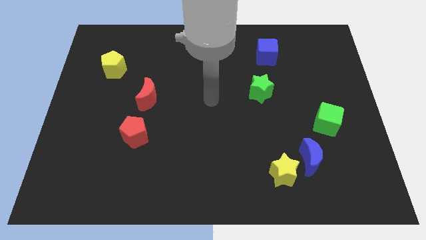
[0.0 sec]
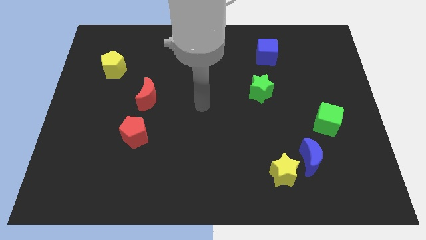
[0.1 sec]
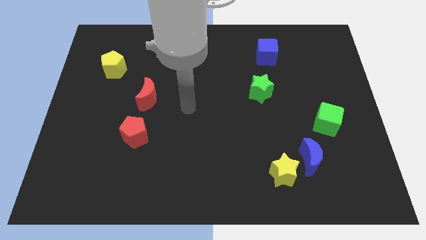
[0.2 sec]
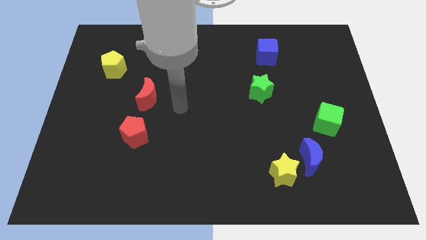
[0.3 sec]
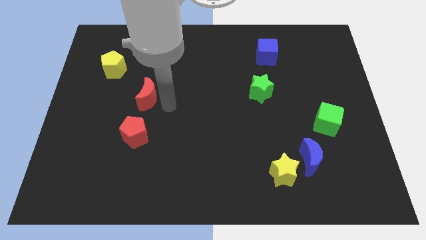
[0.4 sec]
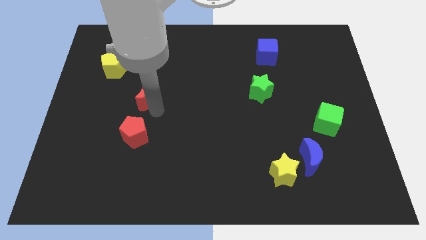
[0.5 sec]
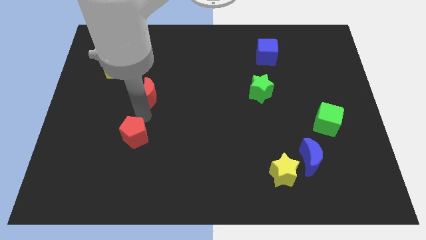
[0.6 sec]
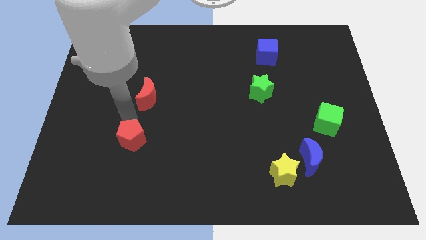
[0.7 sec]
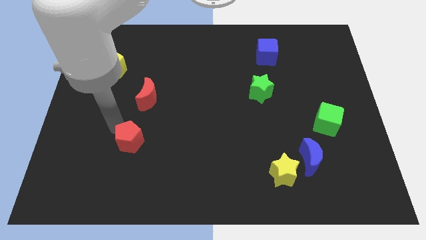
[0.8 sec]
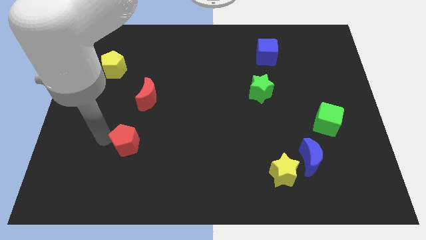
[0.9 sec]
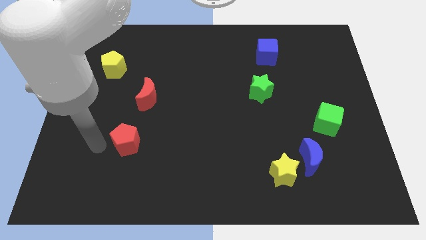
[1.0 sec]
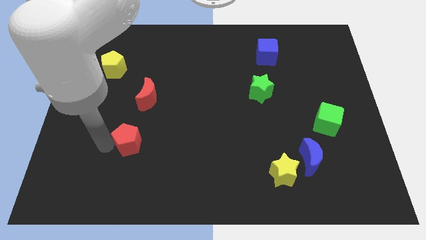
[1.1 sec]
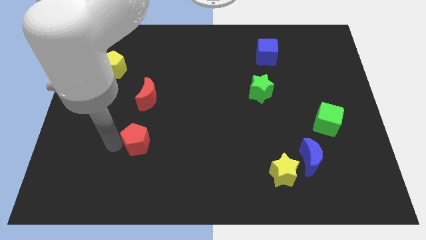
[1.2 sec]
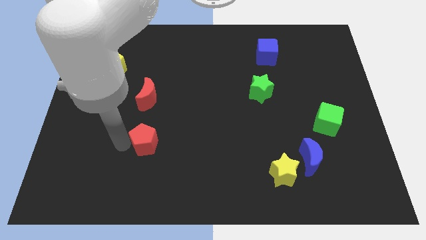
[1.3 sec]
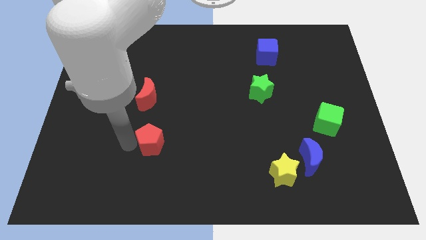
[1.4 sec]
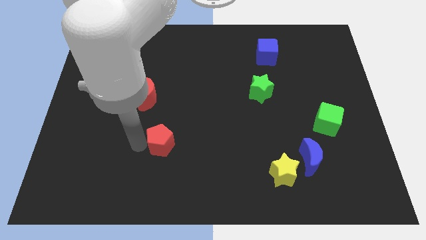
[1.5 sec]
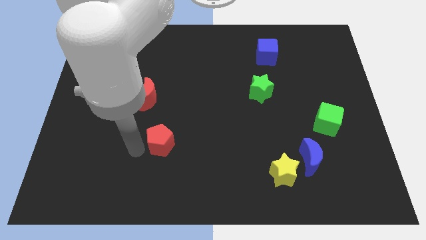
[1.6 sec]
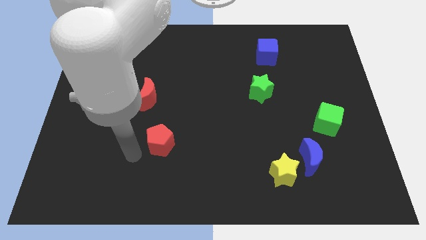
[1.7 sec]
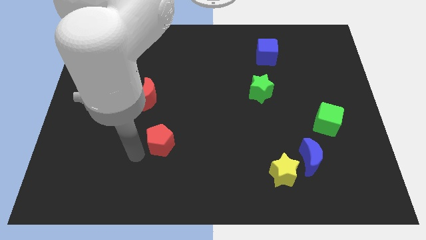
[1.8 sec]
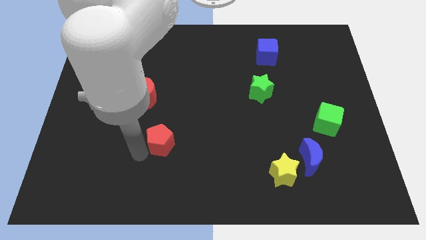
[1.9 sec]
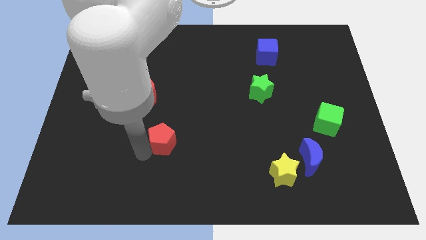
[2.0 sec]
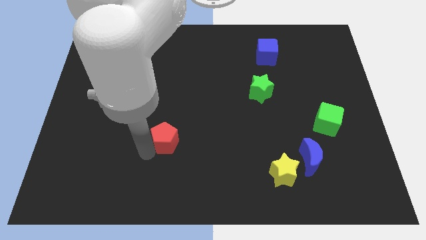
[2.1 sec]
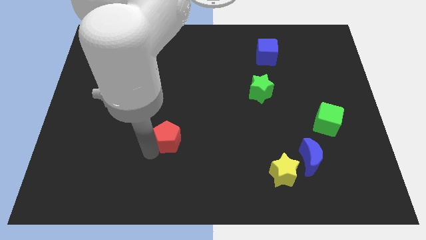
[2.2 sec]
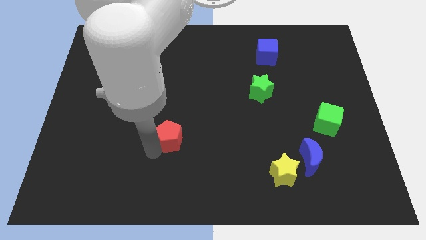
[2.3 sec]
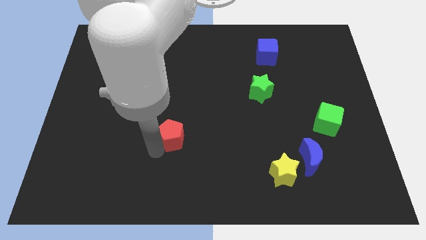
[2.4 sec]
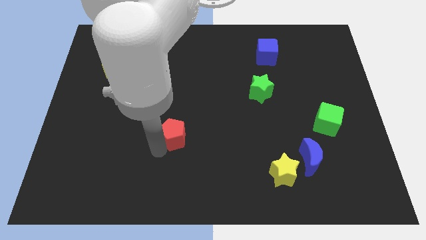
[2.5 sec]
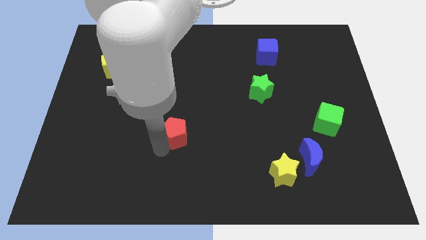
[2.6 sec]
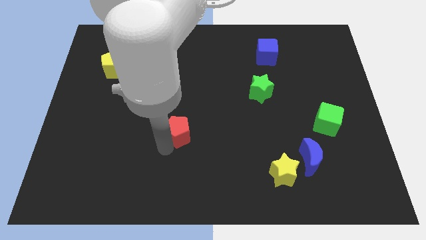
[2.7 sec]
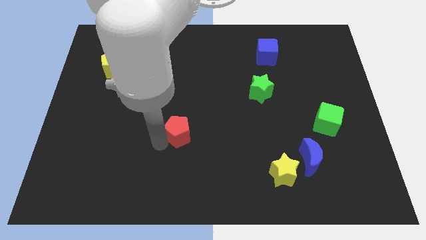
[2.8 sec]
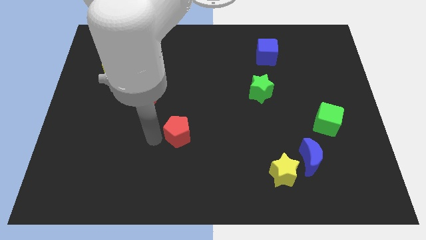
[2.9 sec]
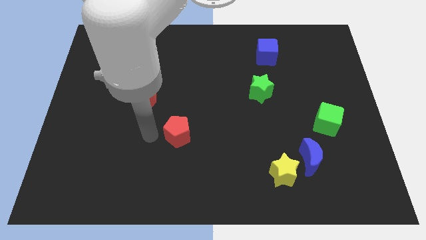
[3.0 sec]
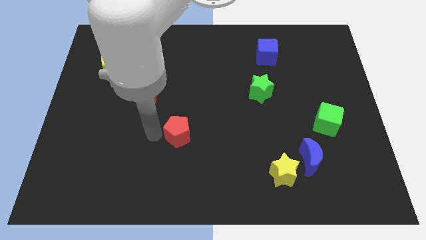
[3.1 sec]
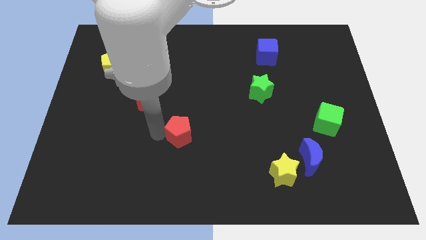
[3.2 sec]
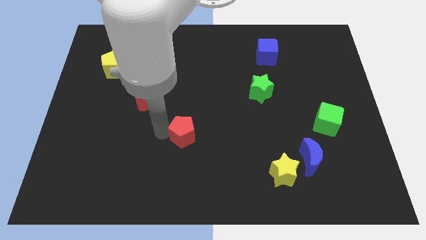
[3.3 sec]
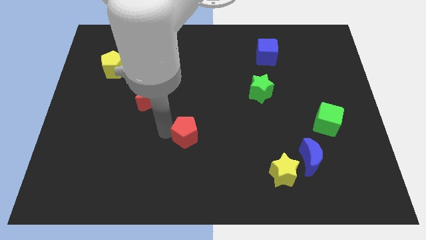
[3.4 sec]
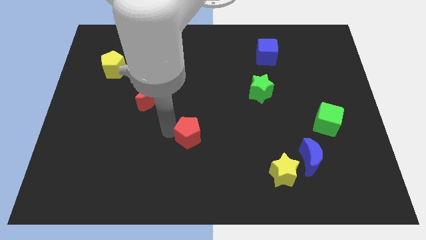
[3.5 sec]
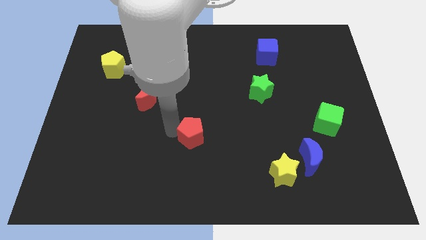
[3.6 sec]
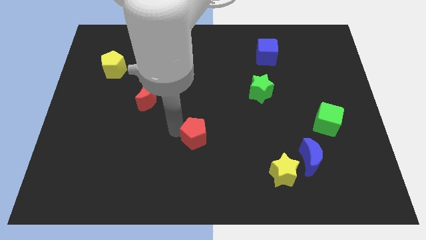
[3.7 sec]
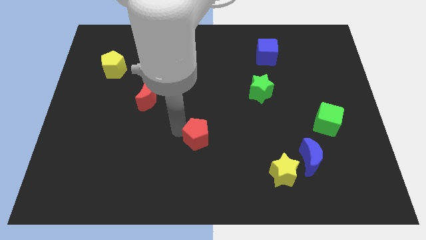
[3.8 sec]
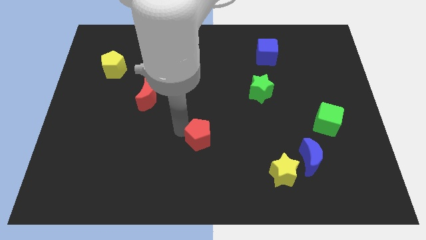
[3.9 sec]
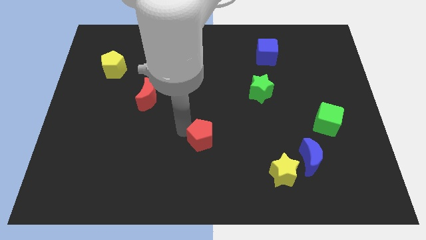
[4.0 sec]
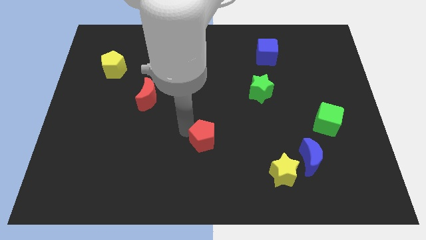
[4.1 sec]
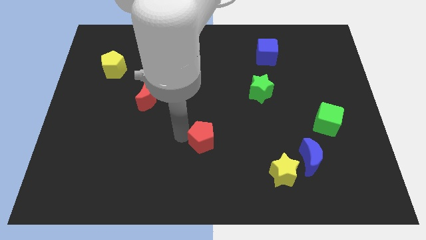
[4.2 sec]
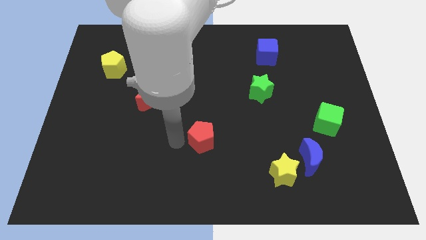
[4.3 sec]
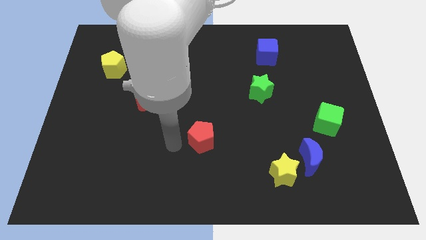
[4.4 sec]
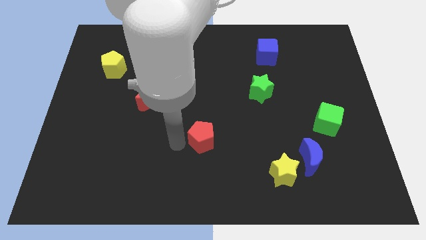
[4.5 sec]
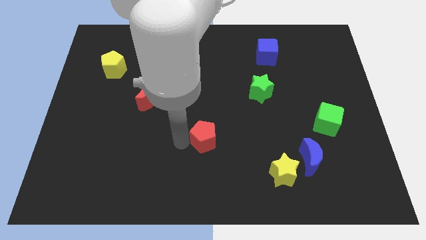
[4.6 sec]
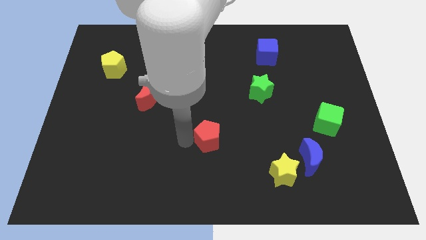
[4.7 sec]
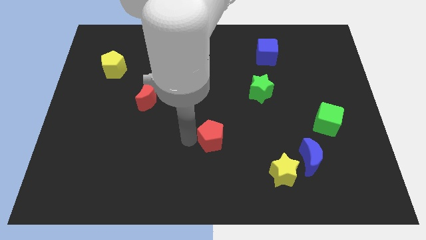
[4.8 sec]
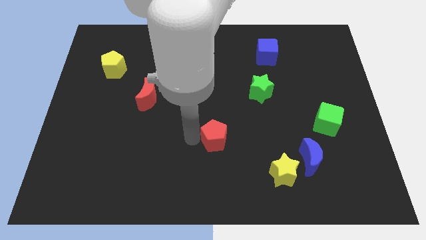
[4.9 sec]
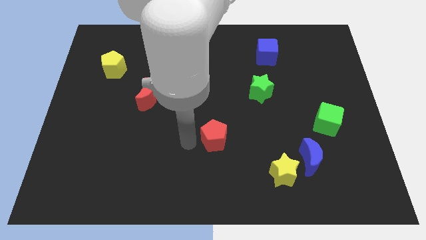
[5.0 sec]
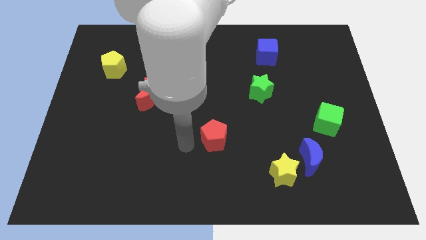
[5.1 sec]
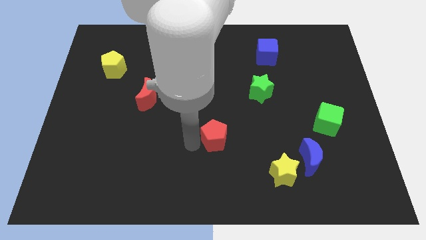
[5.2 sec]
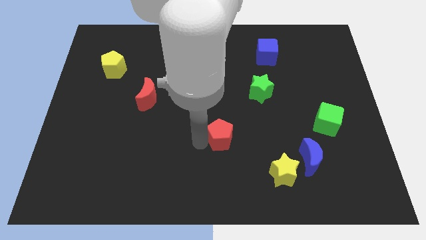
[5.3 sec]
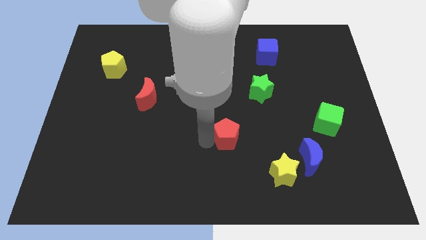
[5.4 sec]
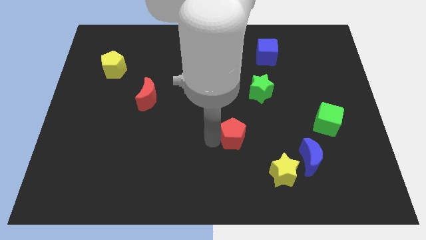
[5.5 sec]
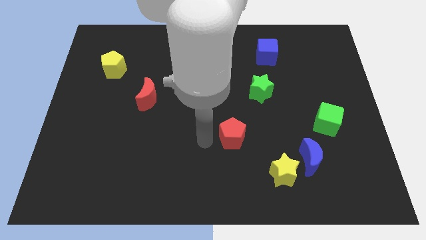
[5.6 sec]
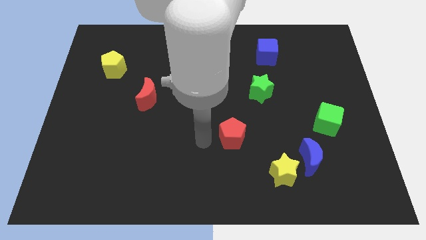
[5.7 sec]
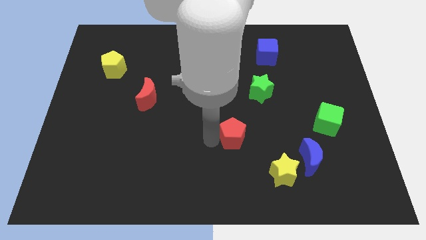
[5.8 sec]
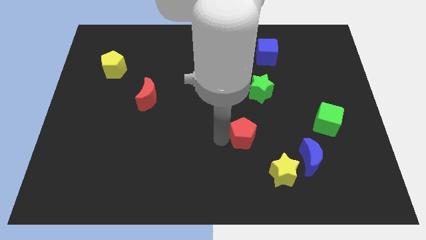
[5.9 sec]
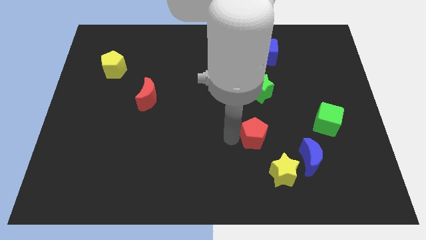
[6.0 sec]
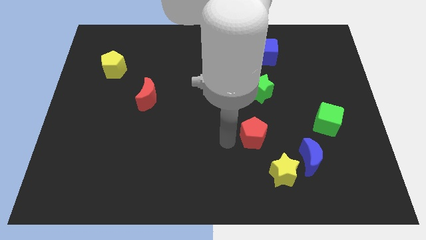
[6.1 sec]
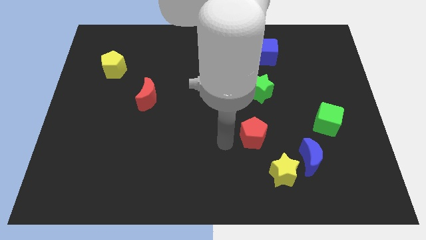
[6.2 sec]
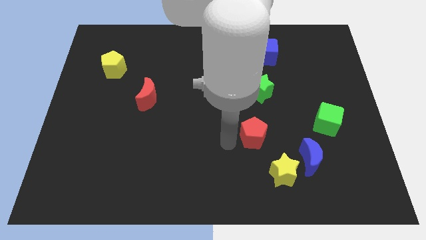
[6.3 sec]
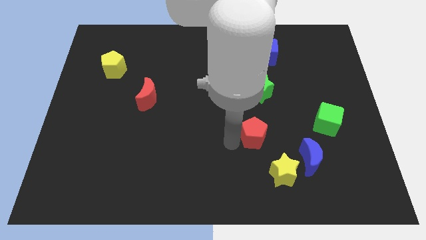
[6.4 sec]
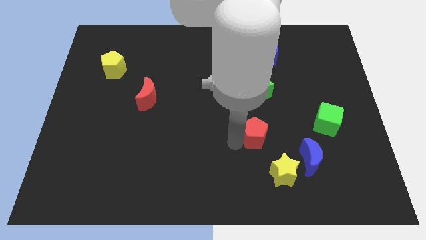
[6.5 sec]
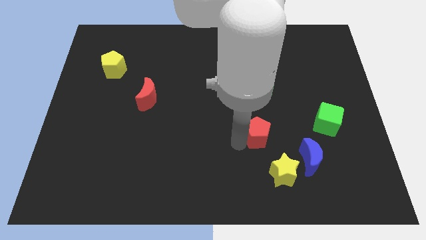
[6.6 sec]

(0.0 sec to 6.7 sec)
put the red pentagon above the yellow star
